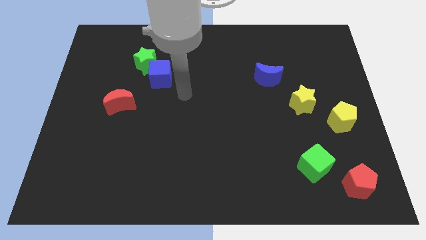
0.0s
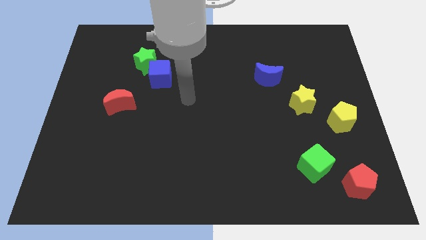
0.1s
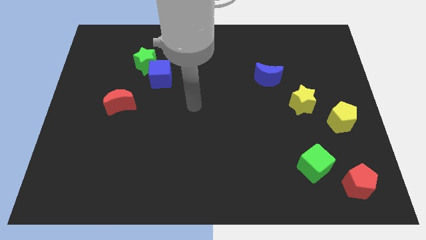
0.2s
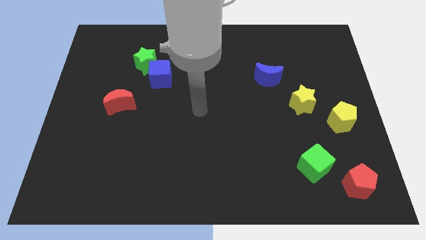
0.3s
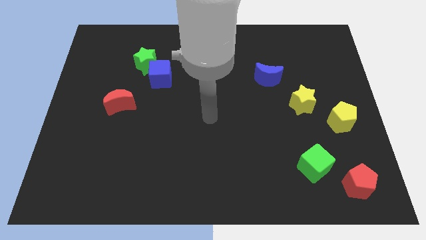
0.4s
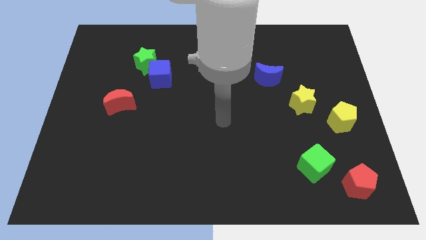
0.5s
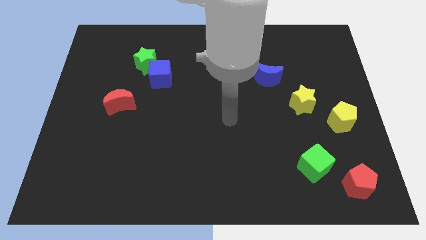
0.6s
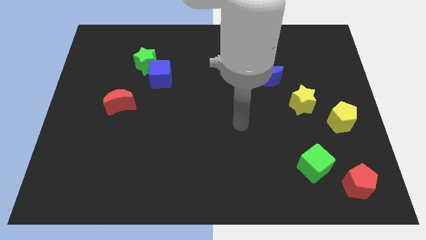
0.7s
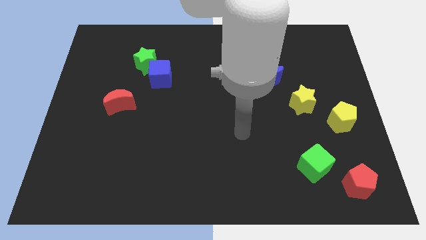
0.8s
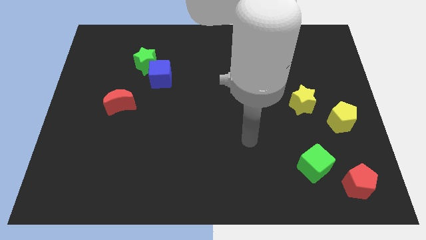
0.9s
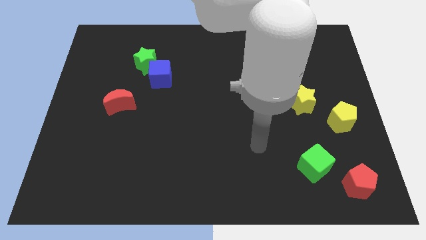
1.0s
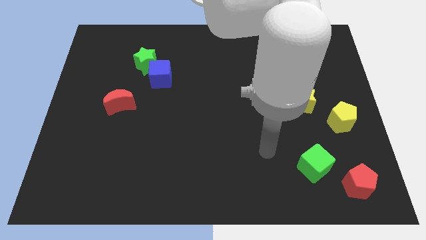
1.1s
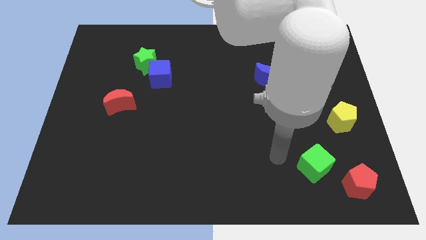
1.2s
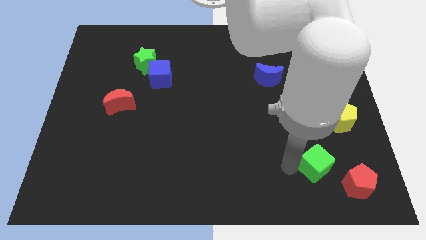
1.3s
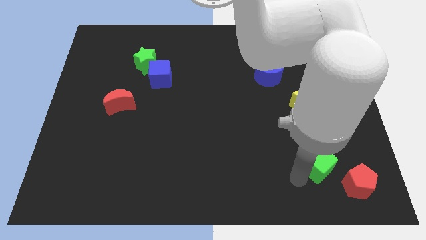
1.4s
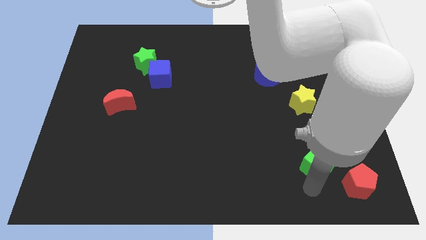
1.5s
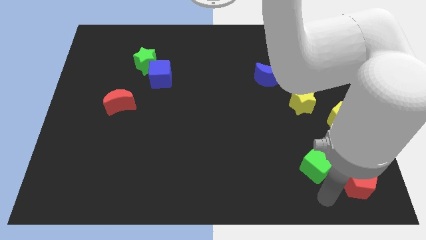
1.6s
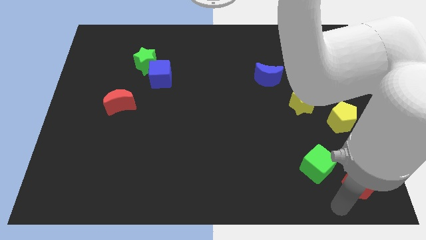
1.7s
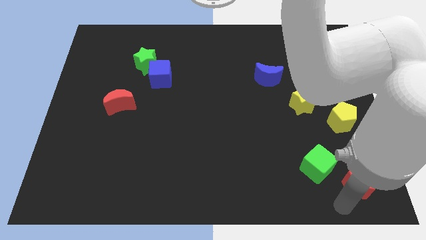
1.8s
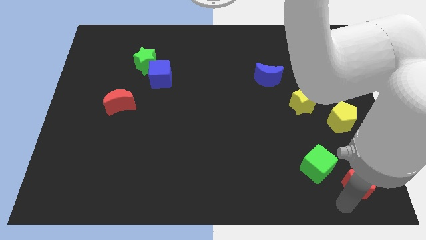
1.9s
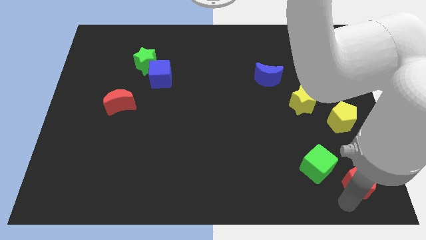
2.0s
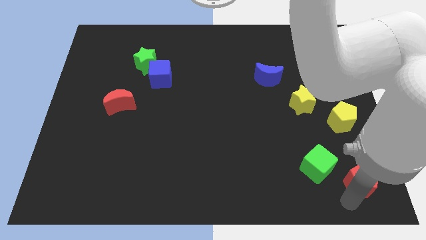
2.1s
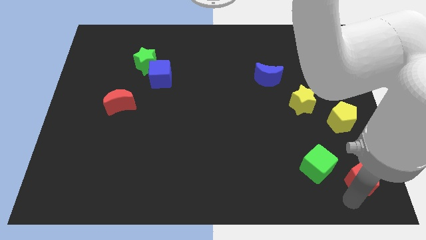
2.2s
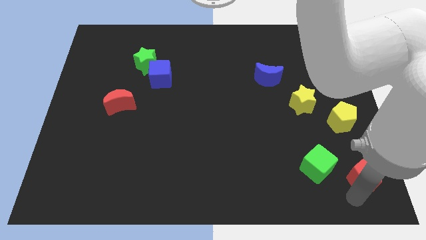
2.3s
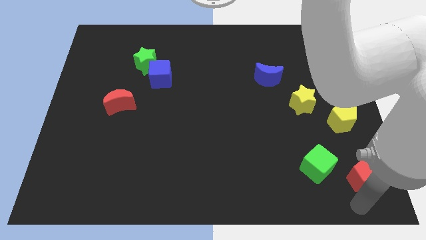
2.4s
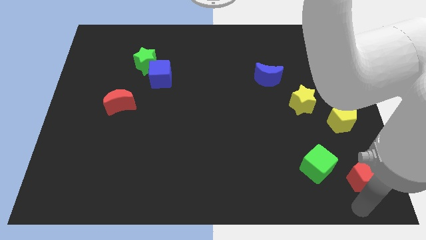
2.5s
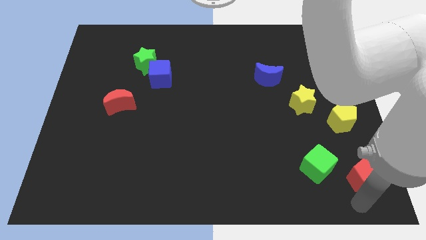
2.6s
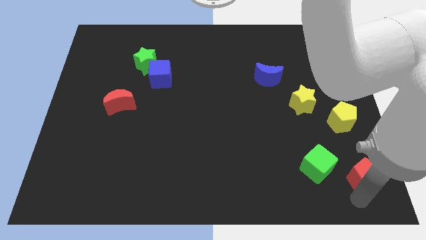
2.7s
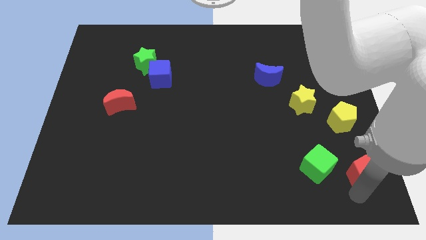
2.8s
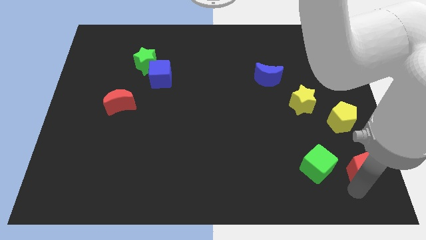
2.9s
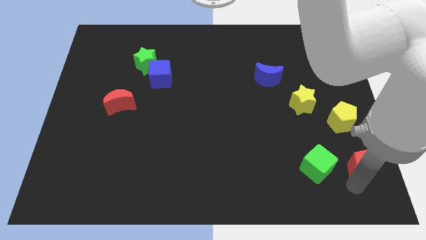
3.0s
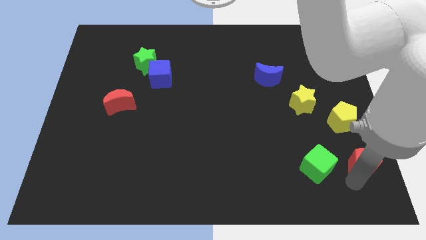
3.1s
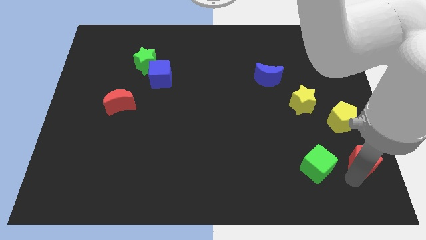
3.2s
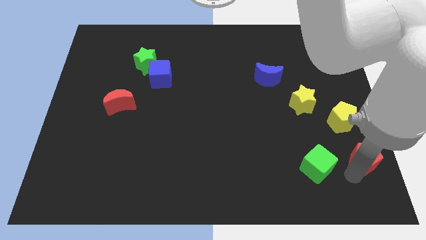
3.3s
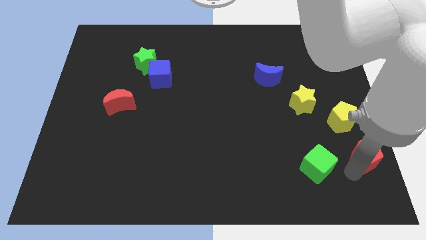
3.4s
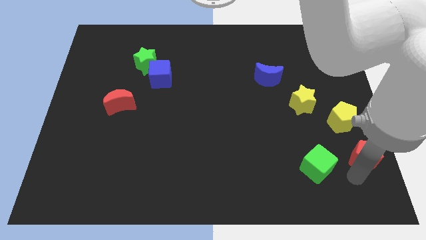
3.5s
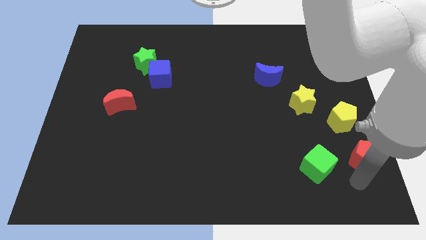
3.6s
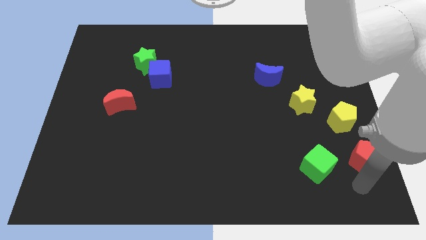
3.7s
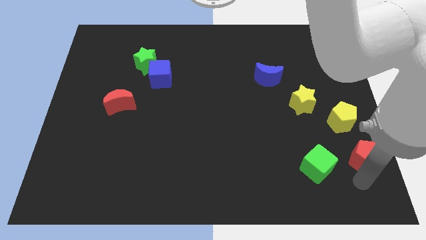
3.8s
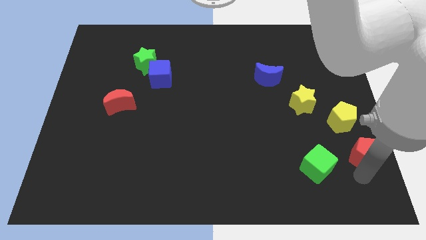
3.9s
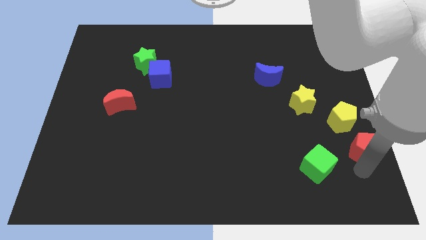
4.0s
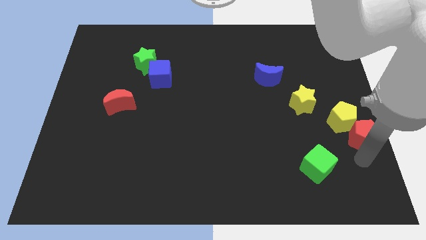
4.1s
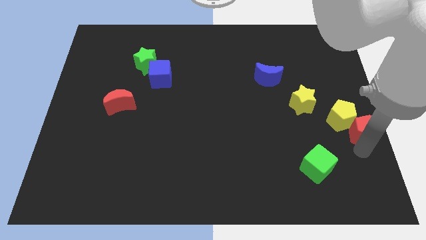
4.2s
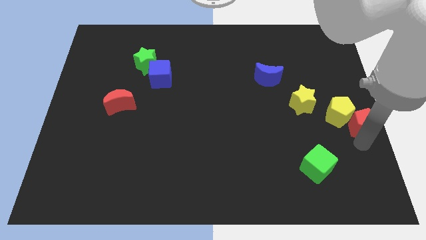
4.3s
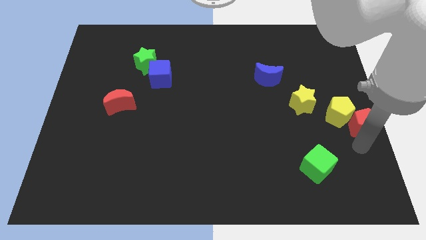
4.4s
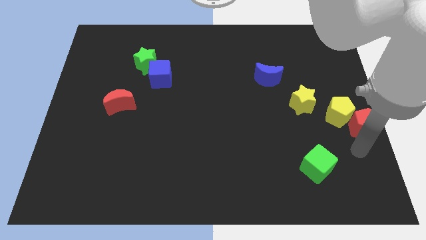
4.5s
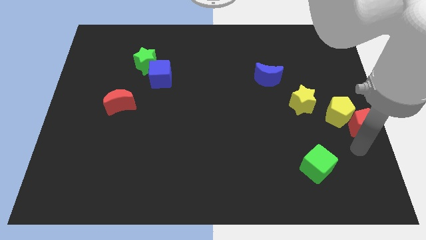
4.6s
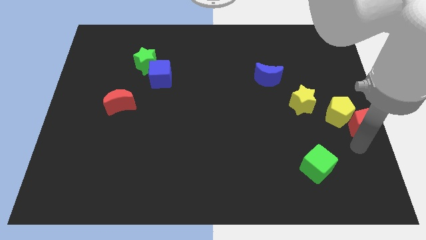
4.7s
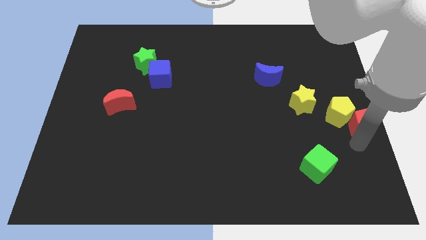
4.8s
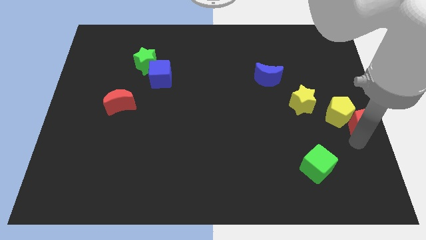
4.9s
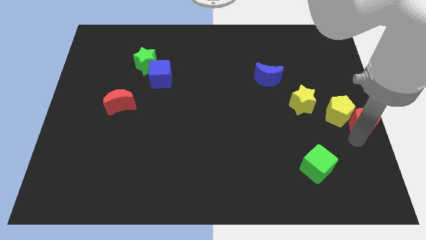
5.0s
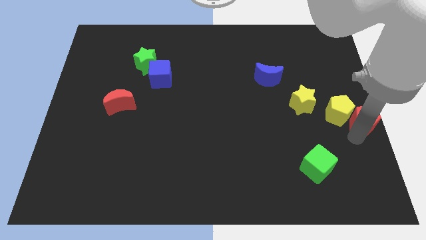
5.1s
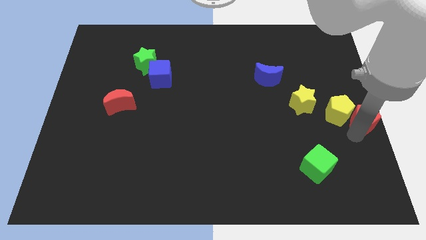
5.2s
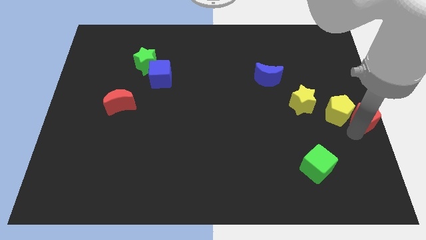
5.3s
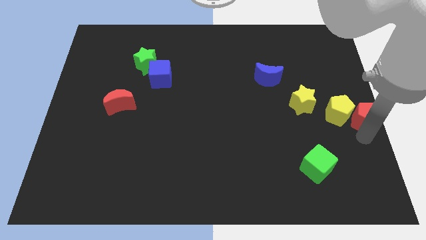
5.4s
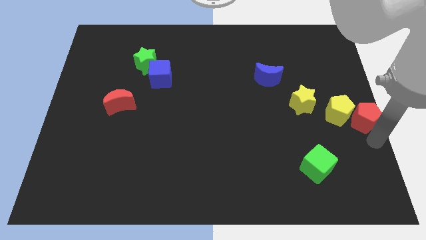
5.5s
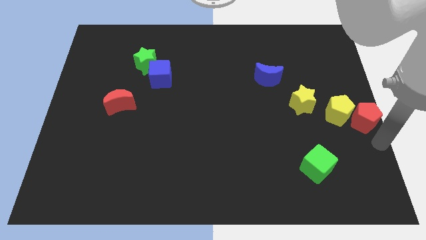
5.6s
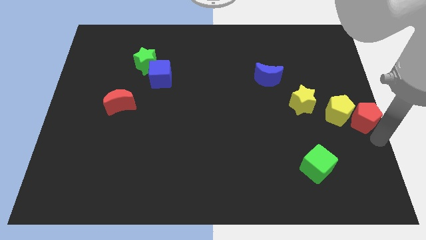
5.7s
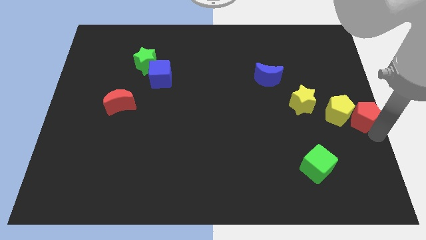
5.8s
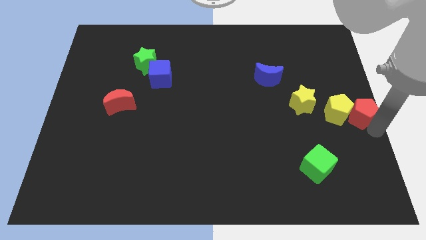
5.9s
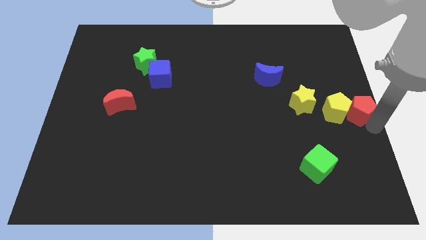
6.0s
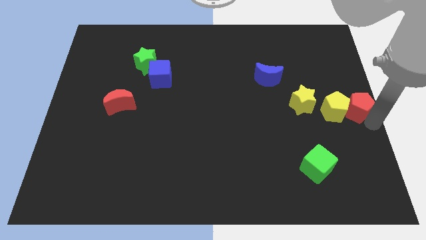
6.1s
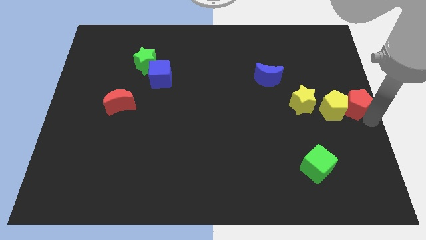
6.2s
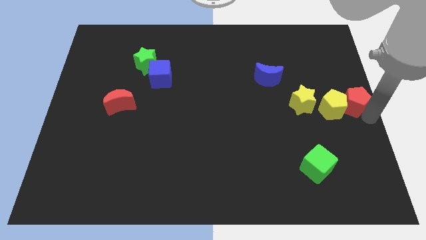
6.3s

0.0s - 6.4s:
move the red pentagon upwards

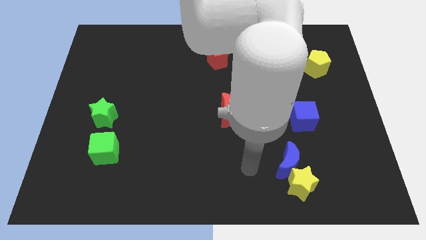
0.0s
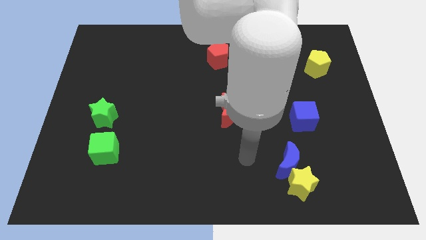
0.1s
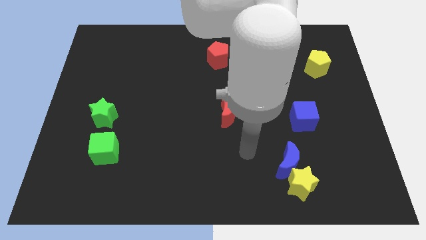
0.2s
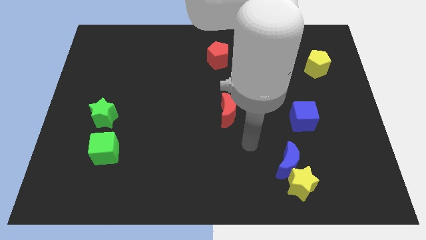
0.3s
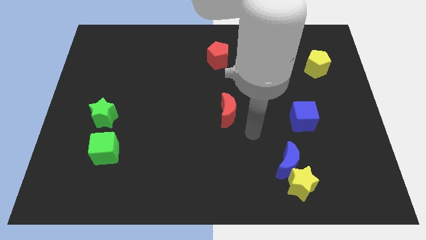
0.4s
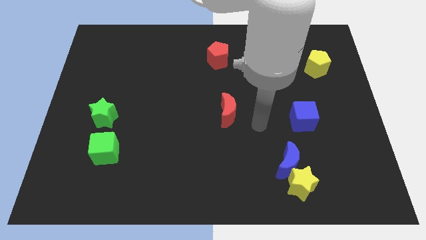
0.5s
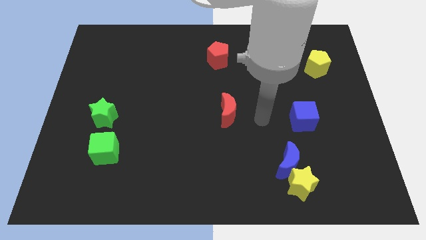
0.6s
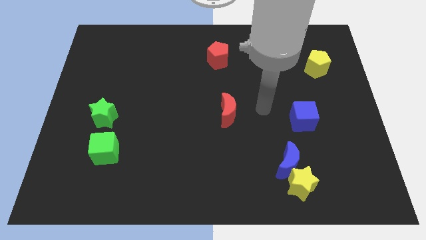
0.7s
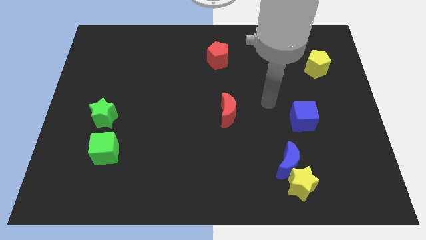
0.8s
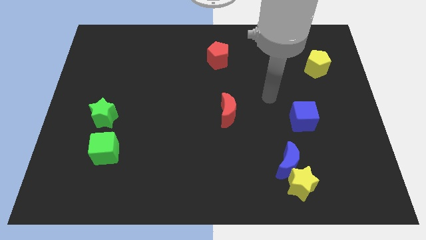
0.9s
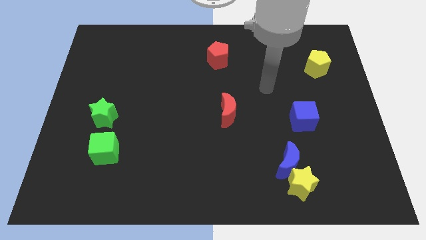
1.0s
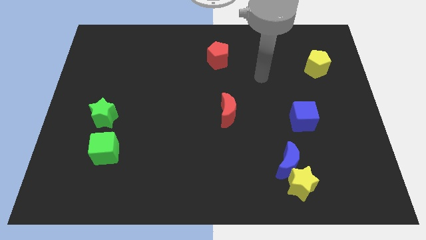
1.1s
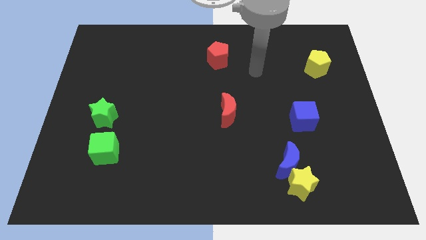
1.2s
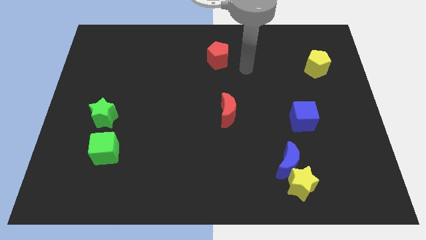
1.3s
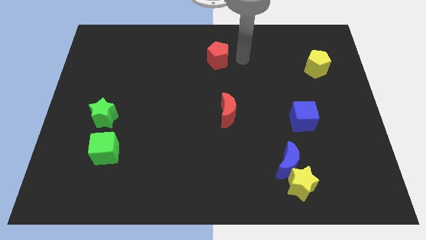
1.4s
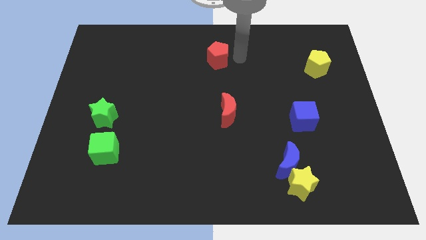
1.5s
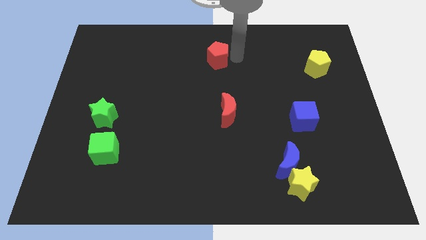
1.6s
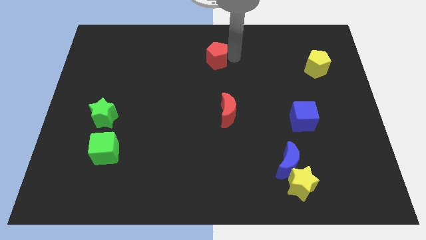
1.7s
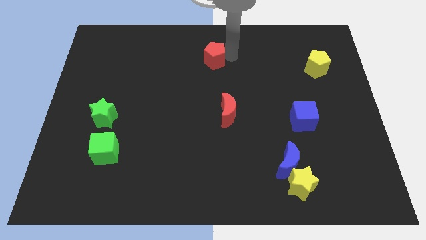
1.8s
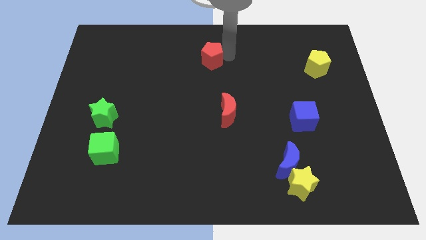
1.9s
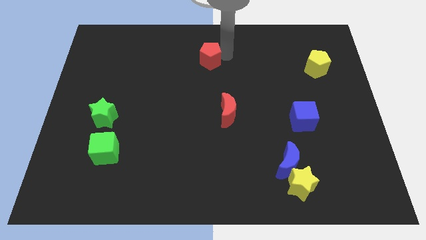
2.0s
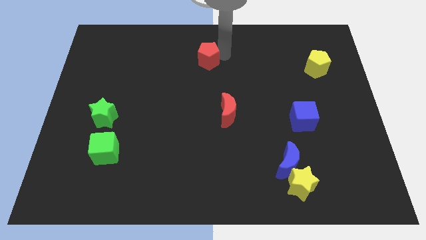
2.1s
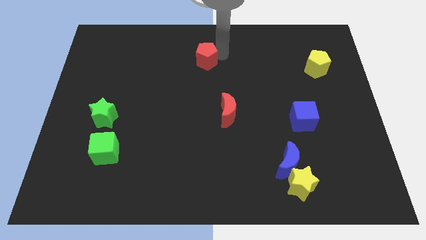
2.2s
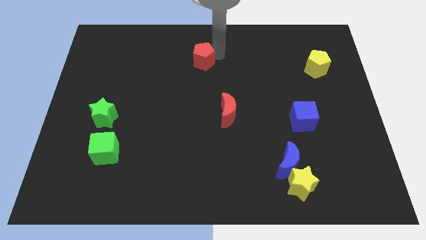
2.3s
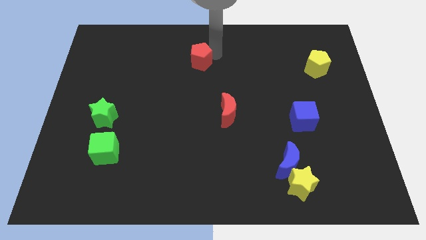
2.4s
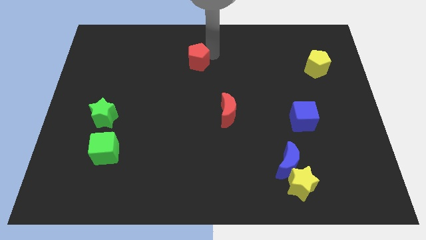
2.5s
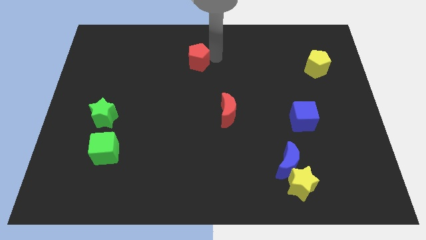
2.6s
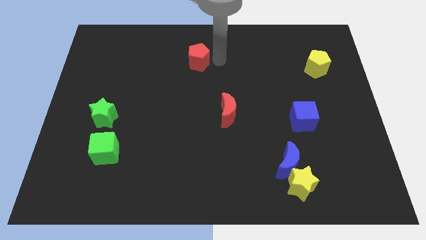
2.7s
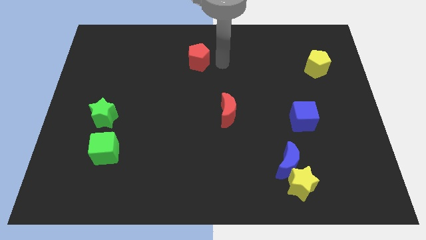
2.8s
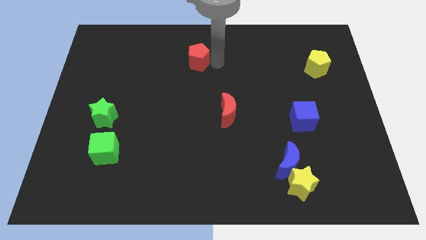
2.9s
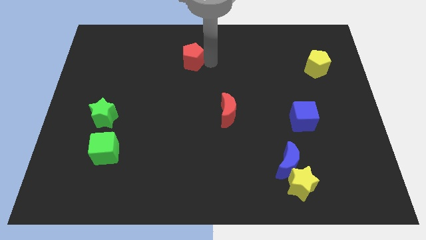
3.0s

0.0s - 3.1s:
slide the red pentagon somewhat left
